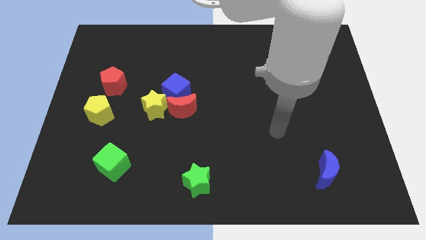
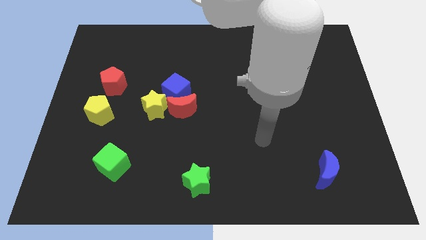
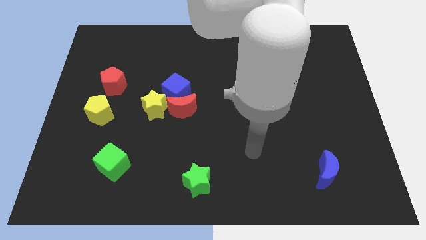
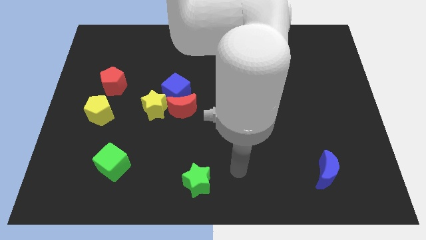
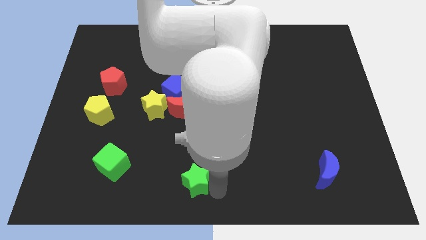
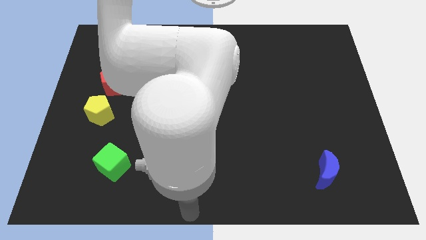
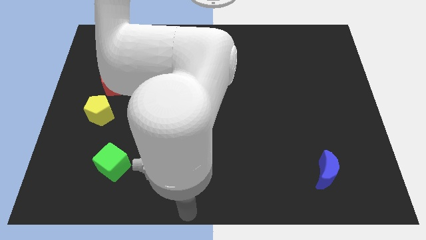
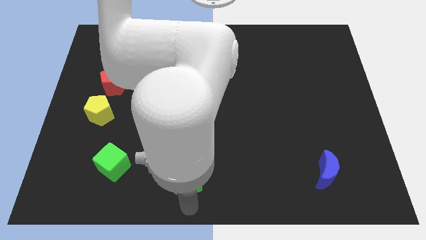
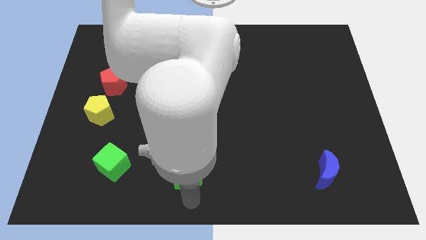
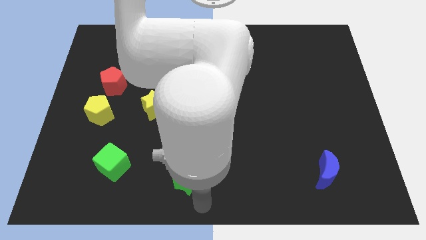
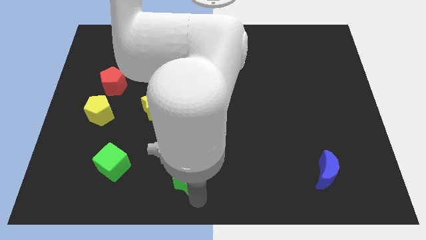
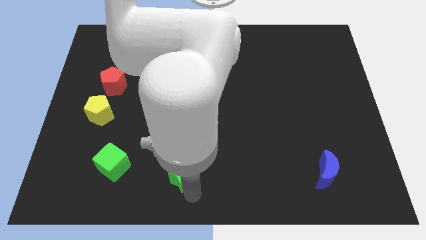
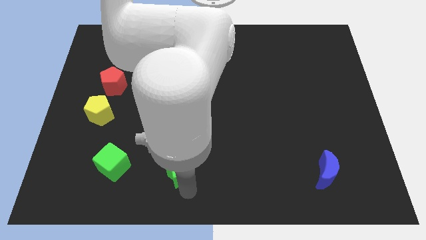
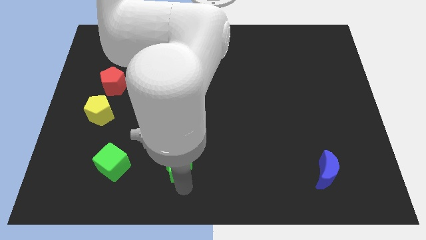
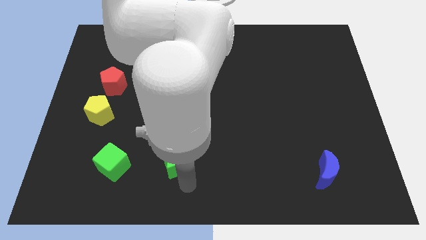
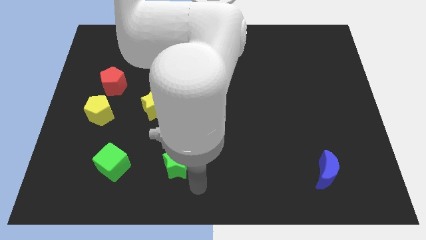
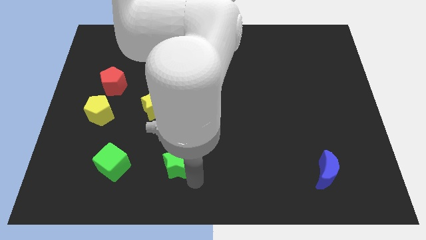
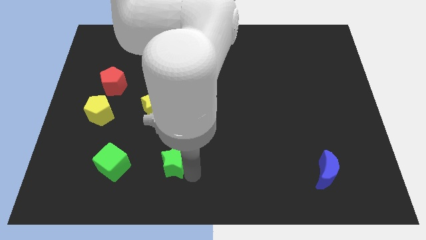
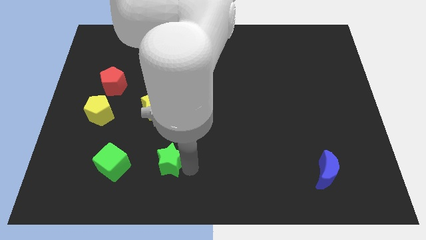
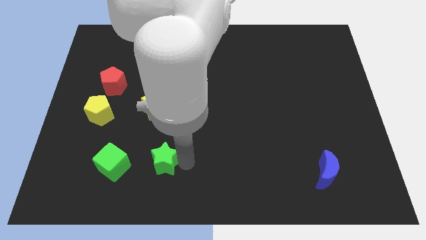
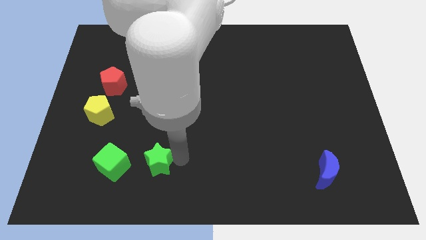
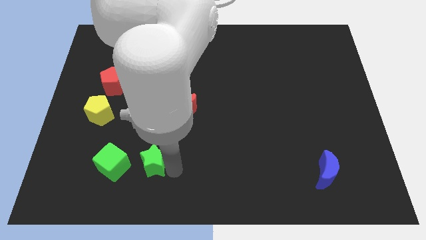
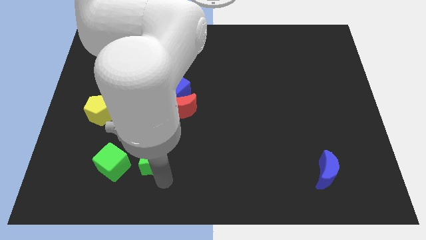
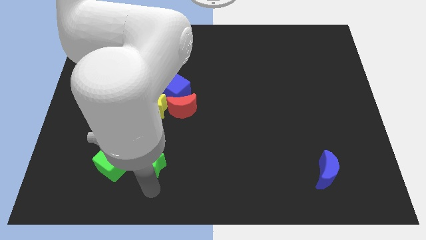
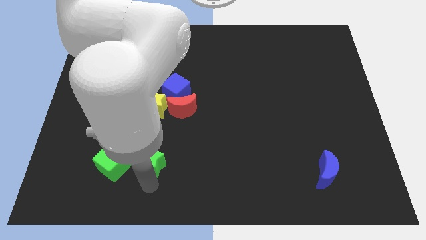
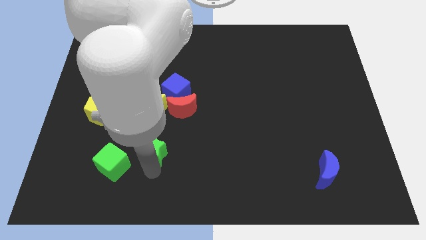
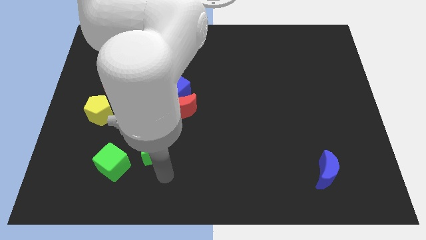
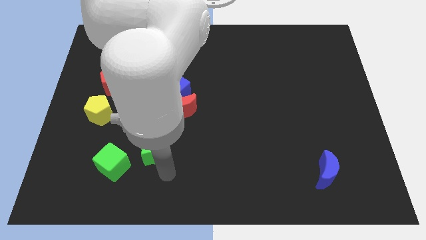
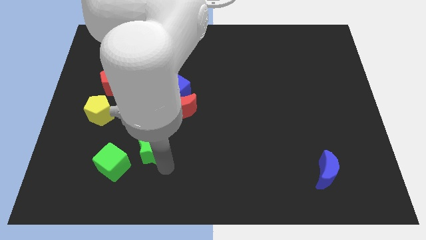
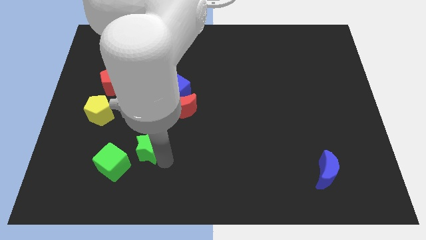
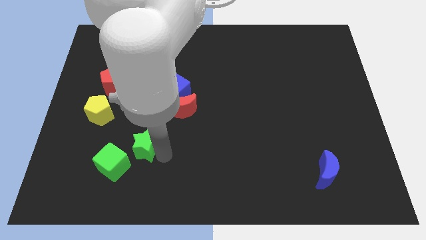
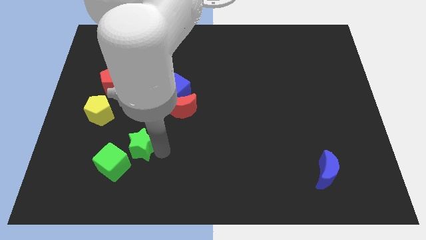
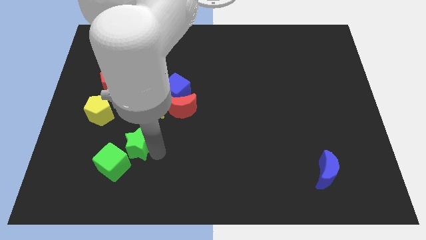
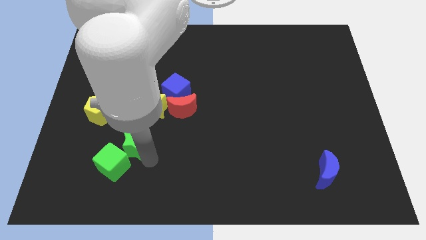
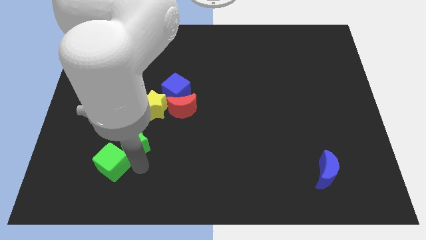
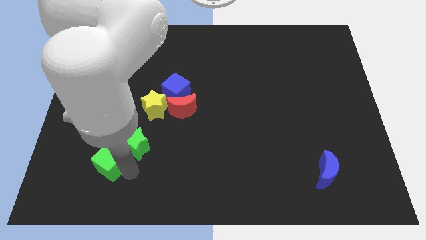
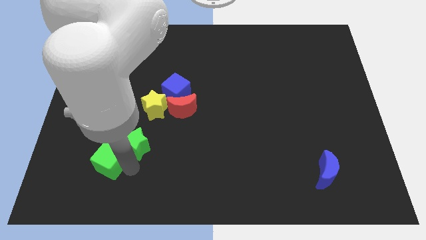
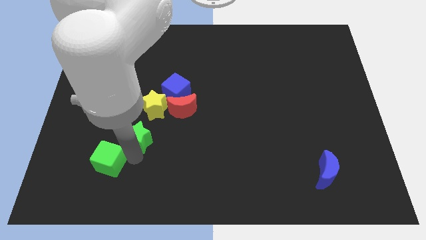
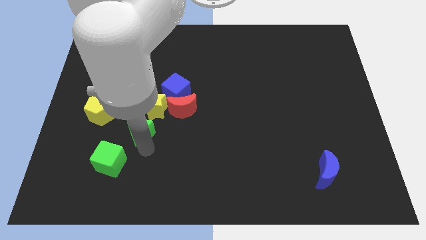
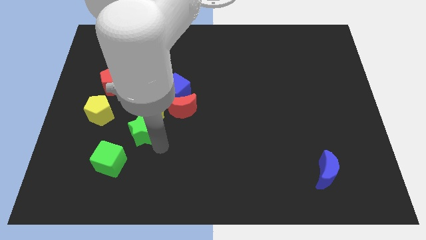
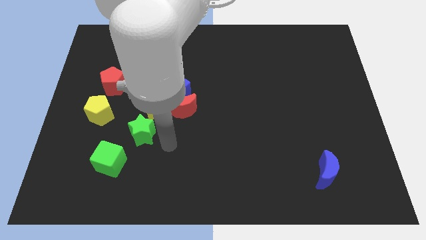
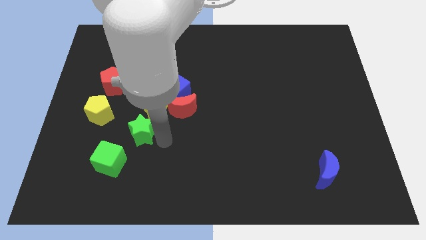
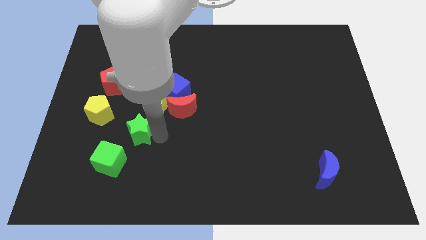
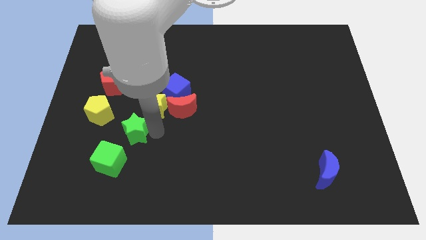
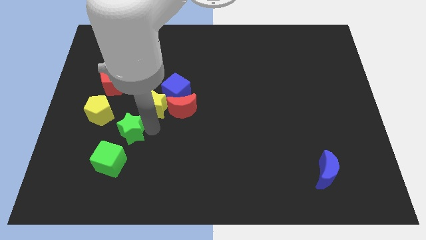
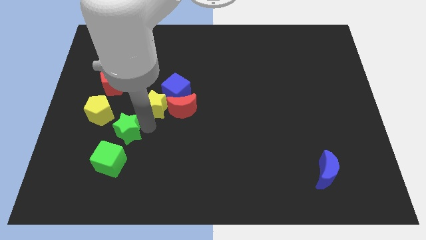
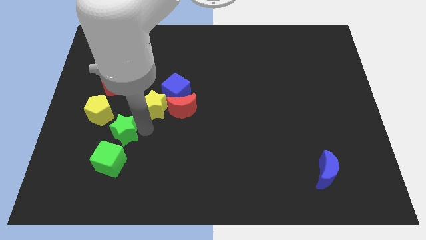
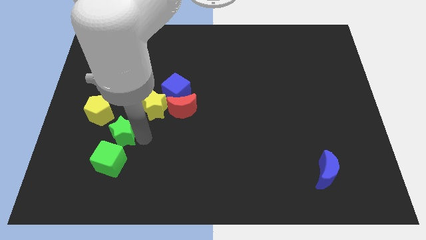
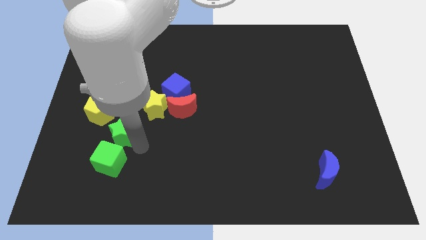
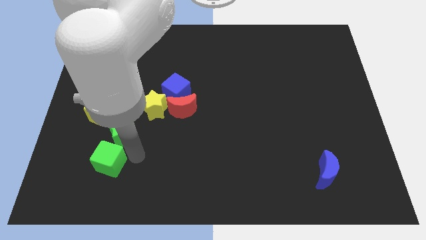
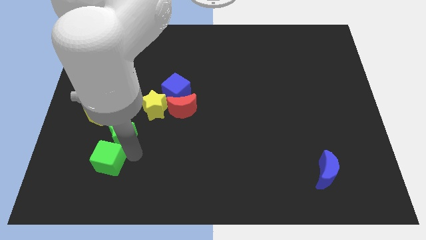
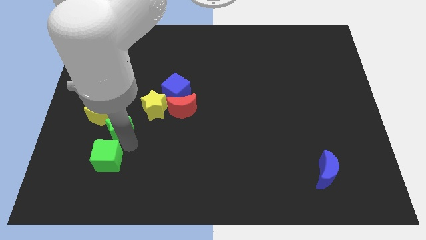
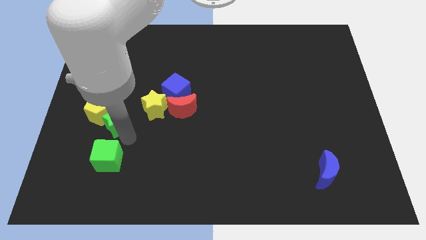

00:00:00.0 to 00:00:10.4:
move the green star towards the yellow pentagon

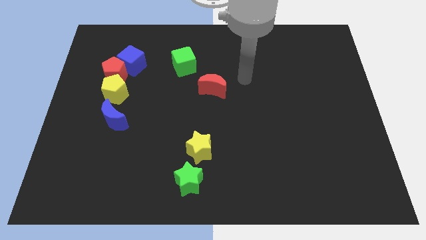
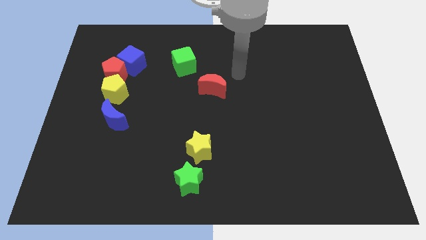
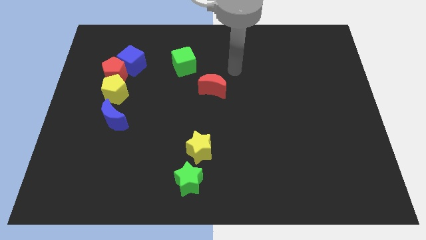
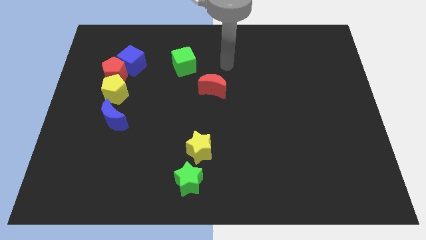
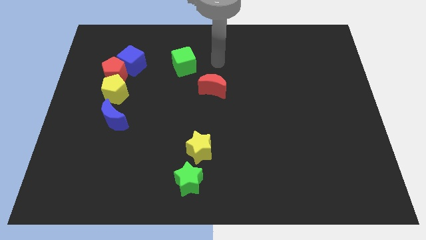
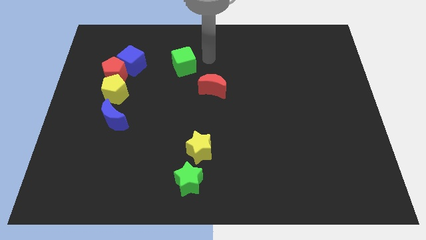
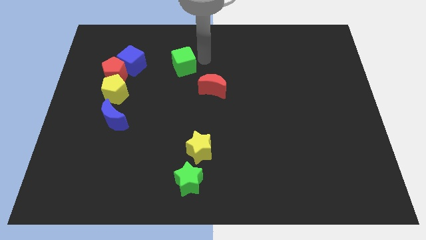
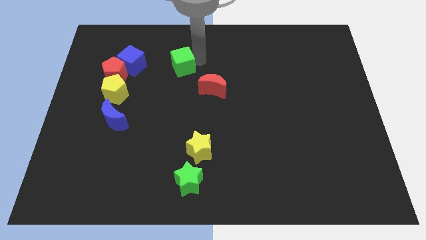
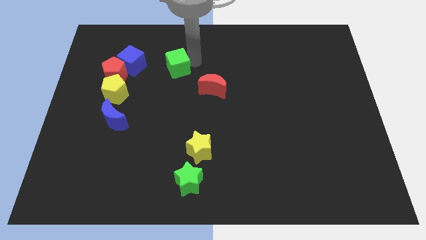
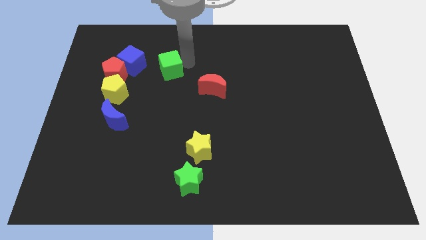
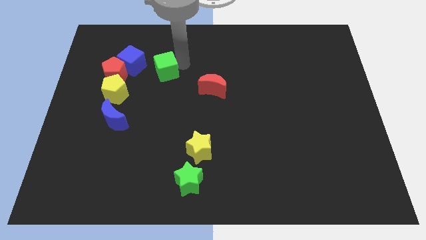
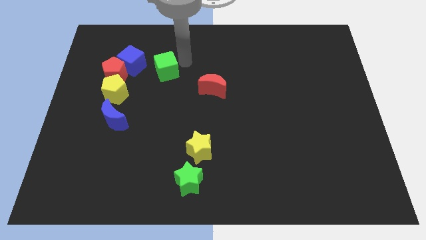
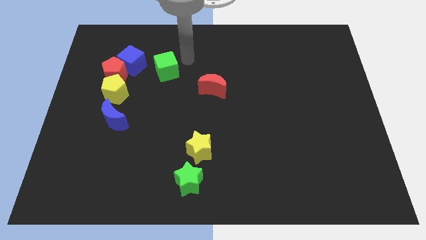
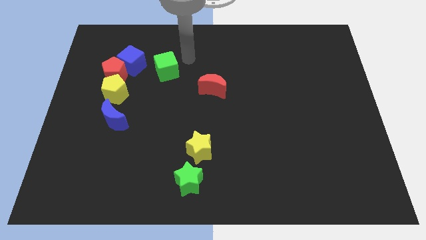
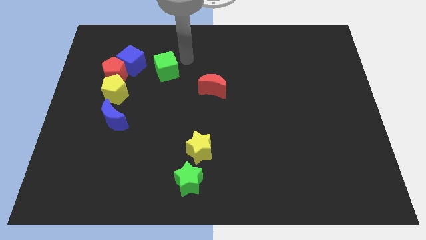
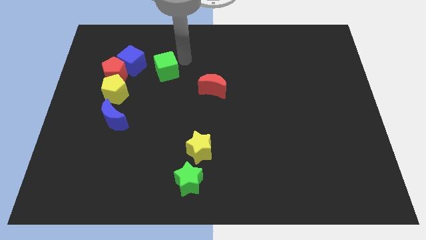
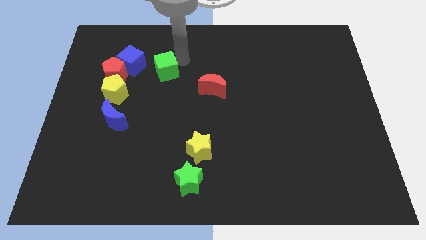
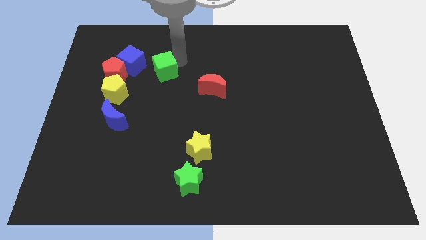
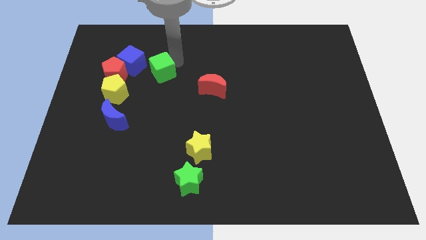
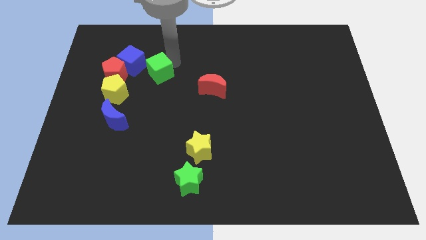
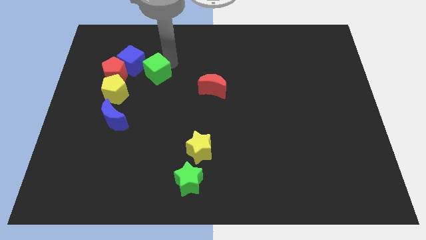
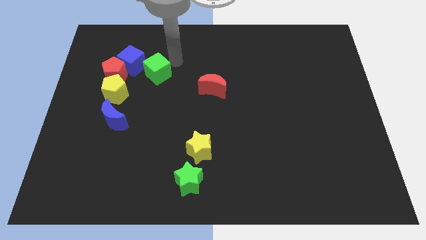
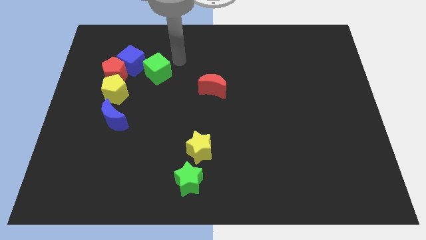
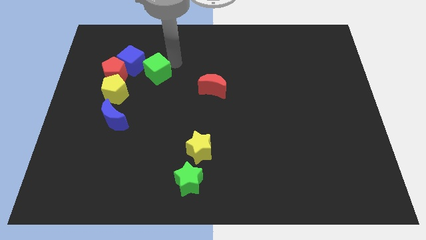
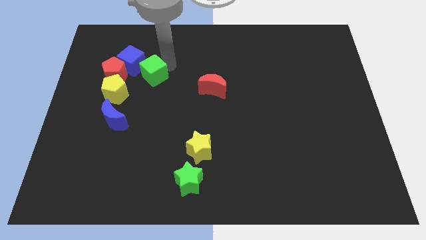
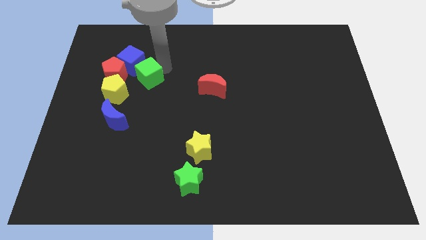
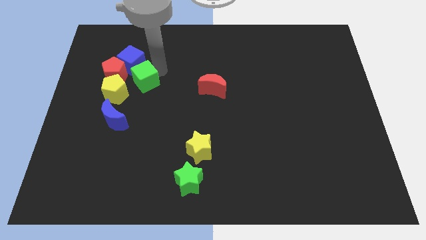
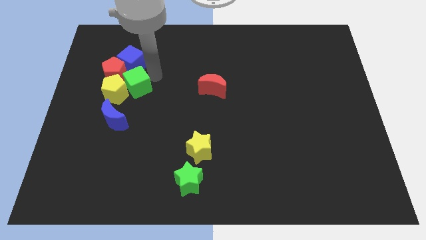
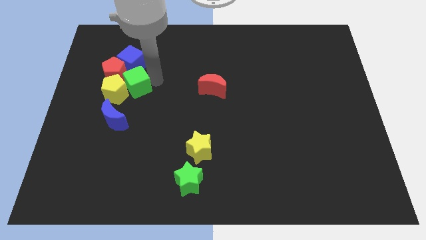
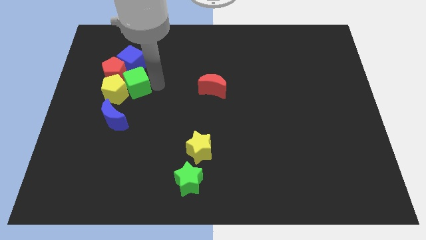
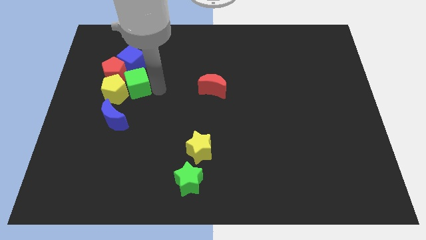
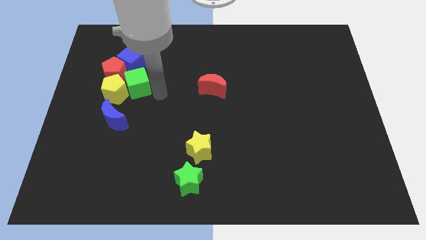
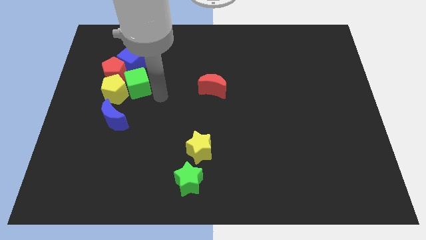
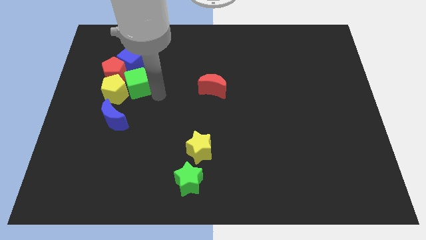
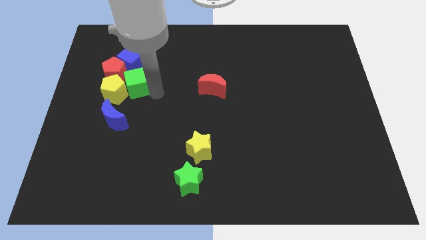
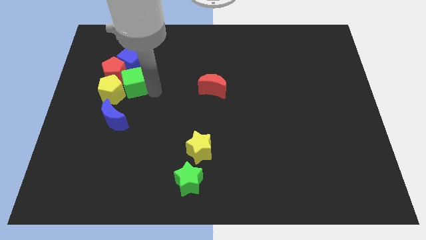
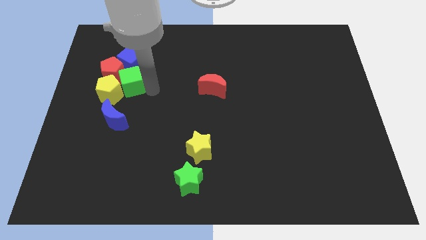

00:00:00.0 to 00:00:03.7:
push the green cube to the red pentagon
